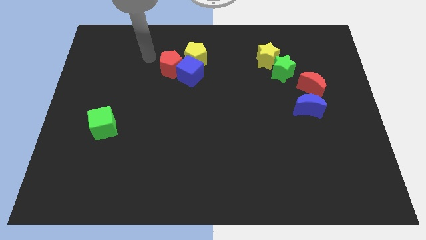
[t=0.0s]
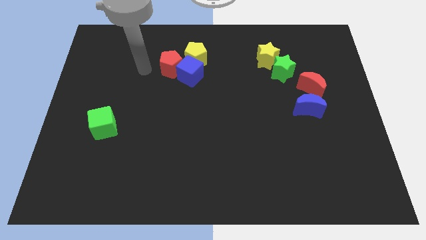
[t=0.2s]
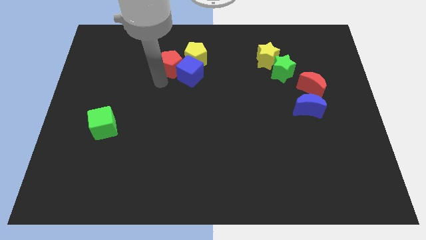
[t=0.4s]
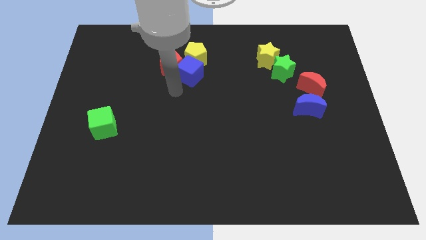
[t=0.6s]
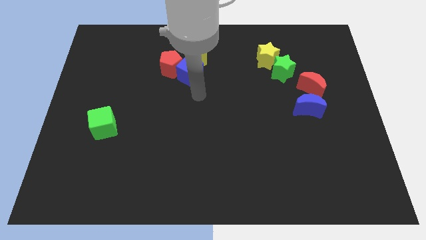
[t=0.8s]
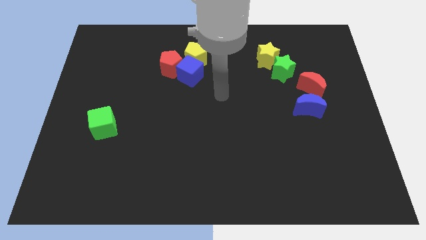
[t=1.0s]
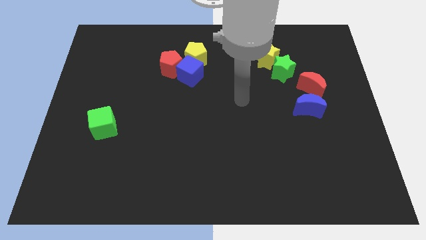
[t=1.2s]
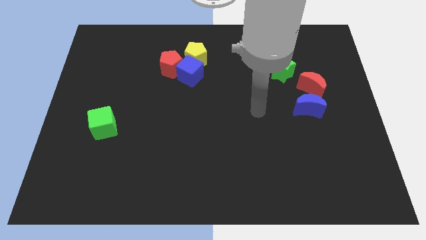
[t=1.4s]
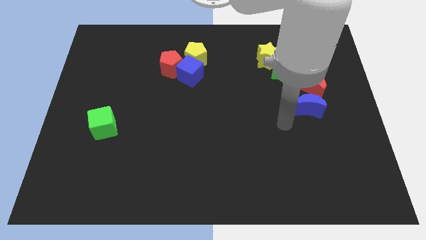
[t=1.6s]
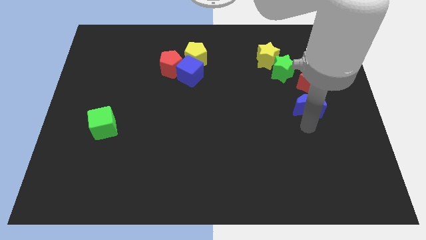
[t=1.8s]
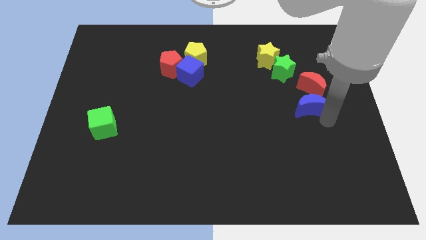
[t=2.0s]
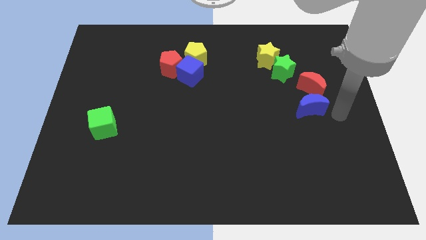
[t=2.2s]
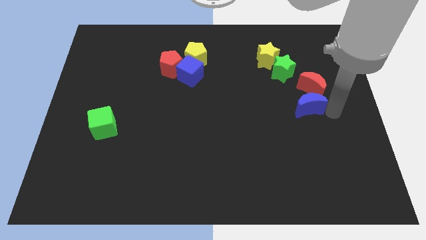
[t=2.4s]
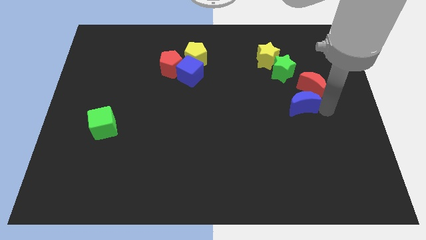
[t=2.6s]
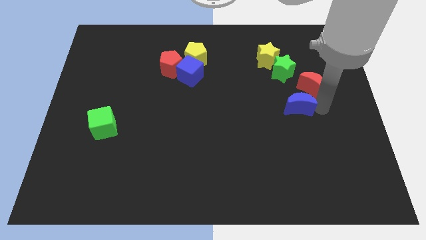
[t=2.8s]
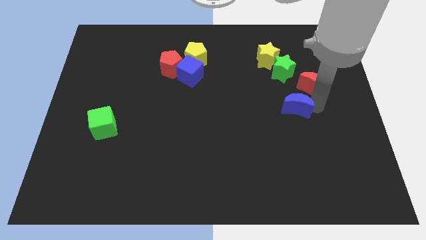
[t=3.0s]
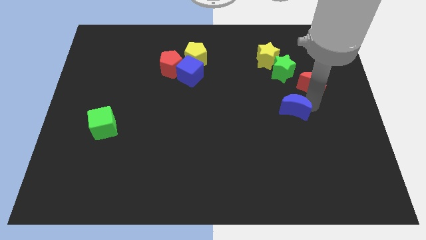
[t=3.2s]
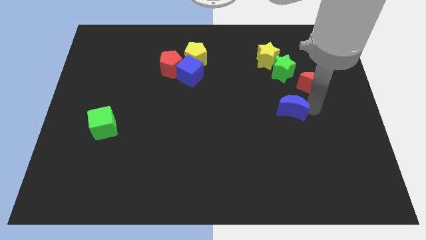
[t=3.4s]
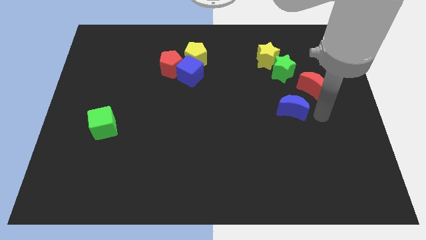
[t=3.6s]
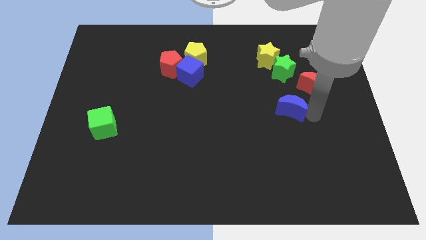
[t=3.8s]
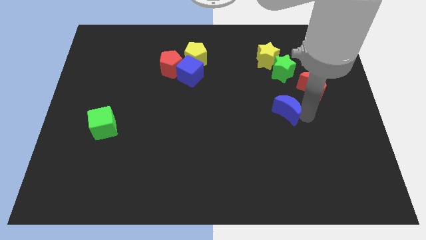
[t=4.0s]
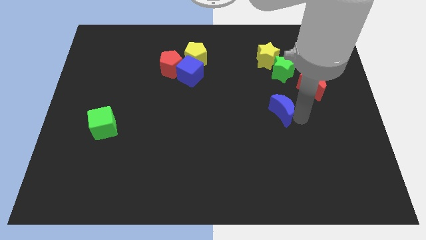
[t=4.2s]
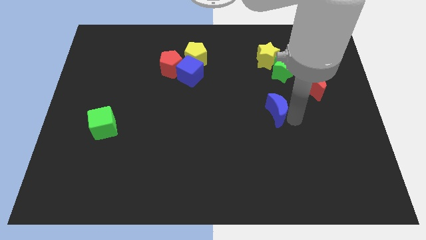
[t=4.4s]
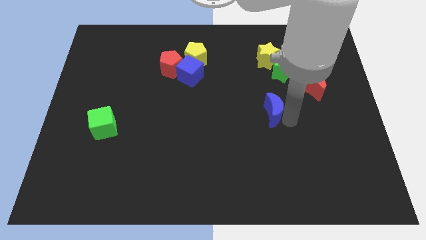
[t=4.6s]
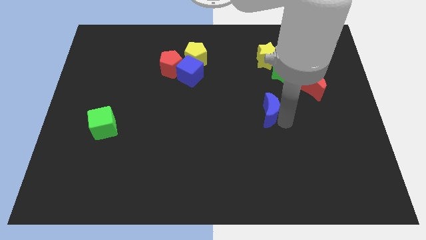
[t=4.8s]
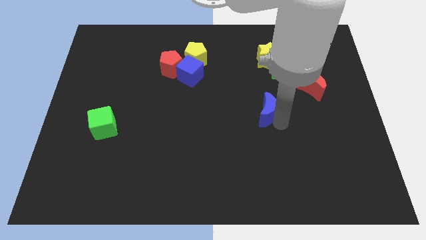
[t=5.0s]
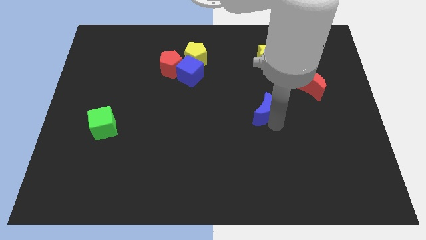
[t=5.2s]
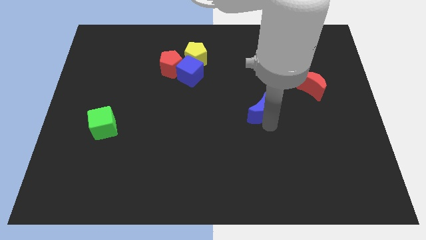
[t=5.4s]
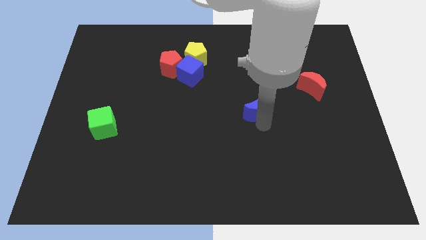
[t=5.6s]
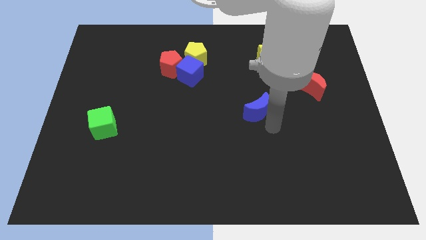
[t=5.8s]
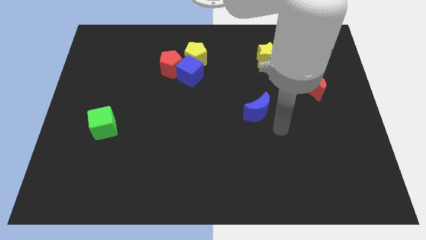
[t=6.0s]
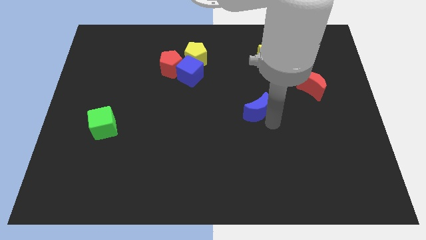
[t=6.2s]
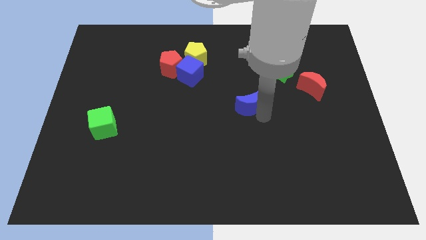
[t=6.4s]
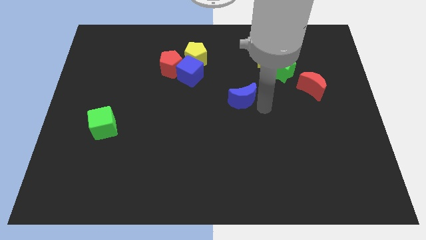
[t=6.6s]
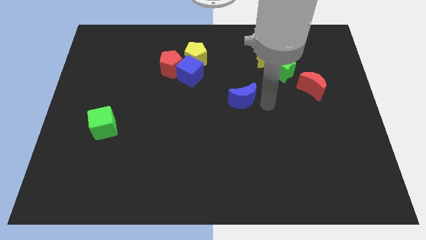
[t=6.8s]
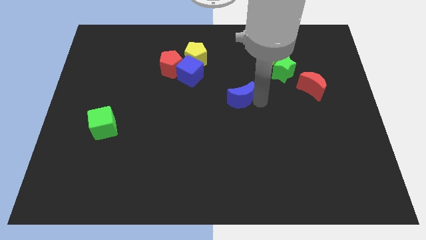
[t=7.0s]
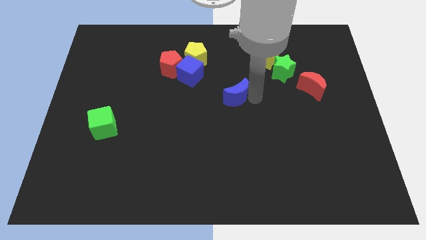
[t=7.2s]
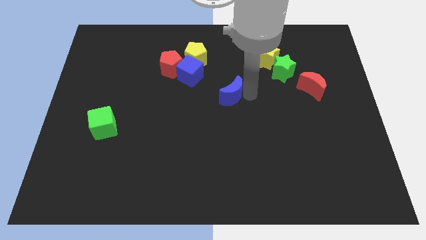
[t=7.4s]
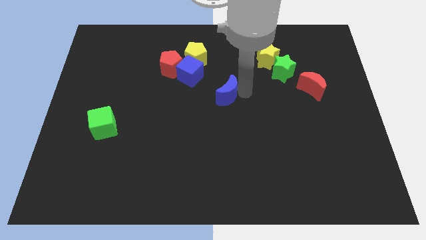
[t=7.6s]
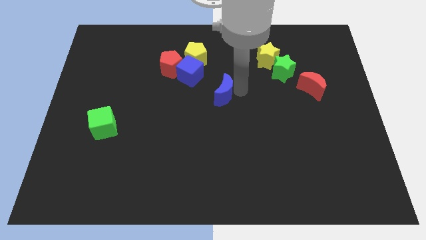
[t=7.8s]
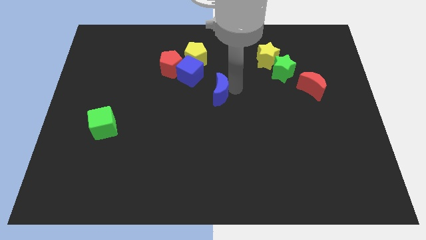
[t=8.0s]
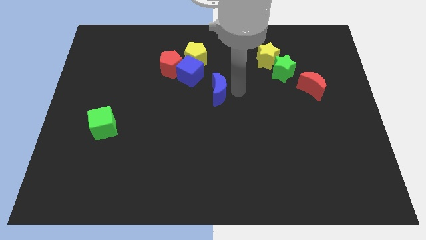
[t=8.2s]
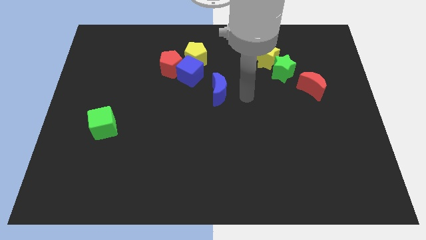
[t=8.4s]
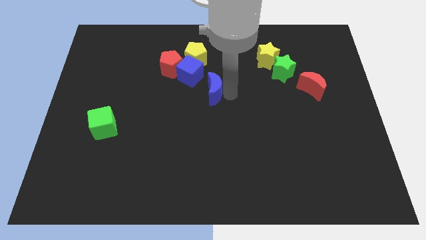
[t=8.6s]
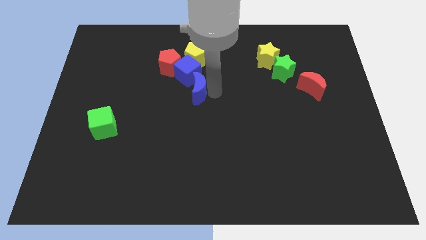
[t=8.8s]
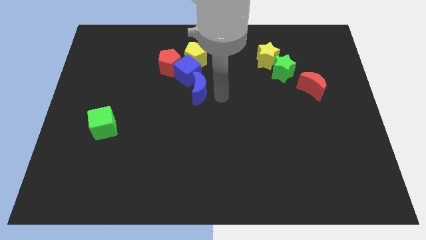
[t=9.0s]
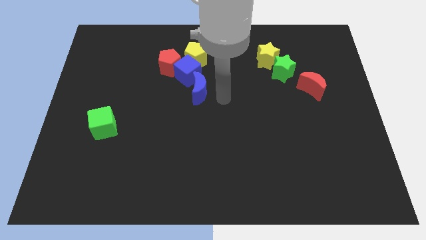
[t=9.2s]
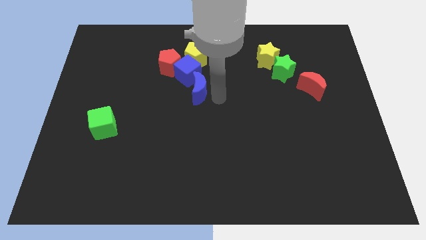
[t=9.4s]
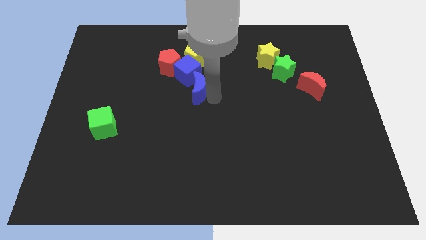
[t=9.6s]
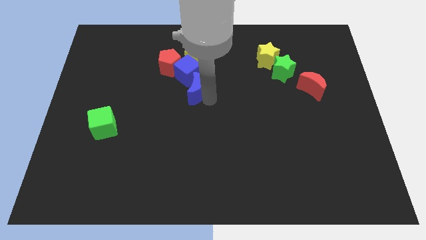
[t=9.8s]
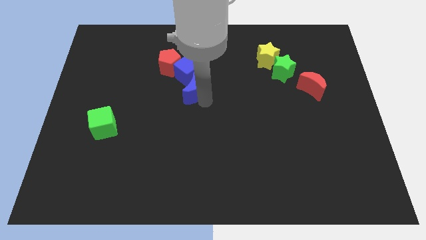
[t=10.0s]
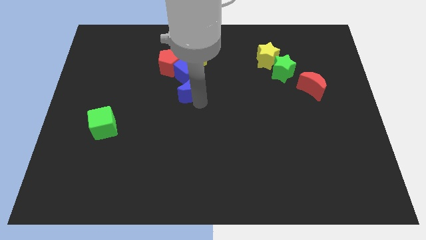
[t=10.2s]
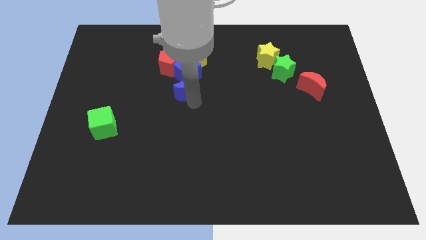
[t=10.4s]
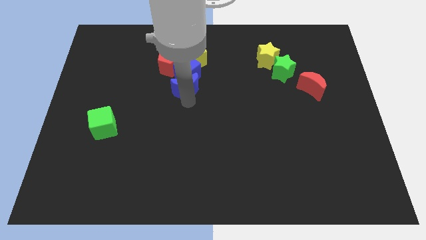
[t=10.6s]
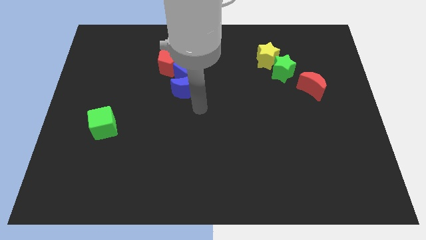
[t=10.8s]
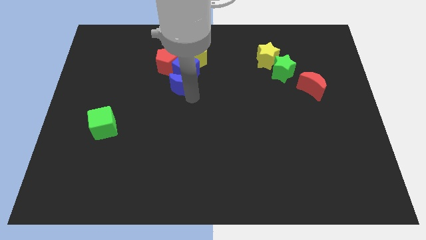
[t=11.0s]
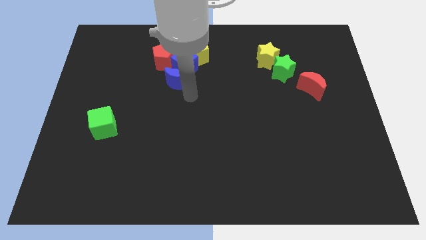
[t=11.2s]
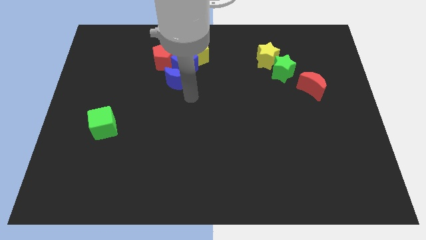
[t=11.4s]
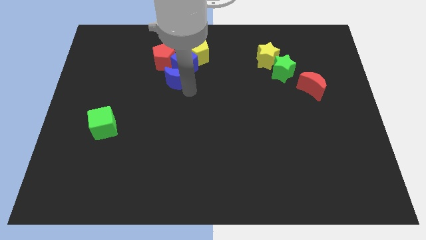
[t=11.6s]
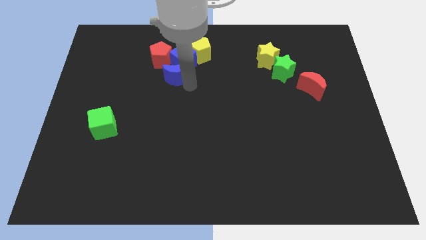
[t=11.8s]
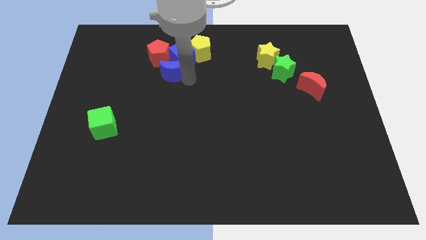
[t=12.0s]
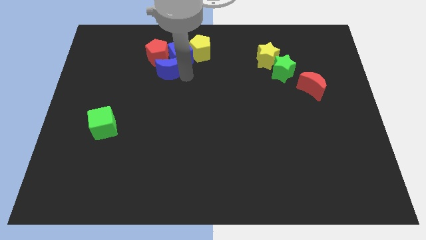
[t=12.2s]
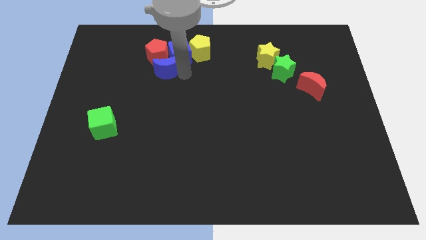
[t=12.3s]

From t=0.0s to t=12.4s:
slide the blue moon close to the red pentagon

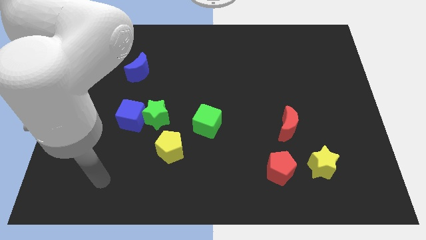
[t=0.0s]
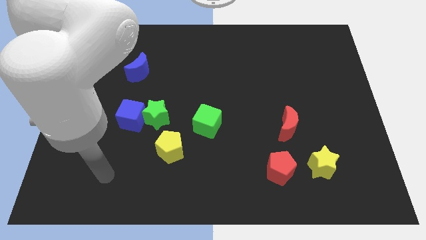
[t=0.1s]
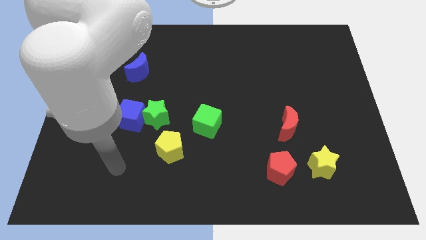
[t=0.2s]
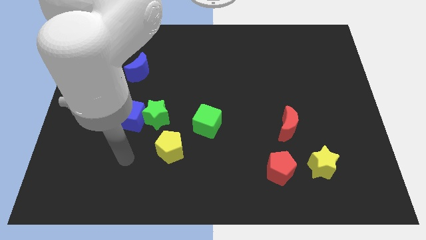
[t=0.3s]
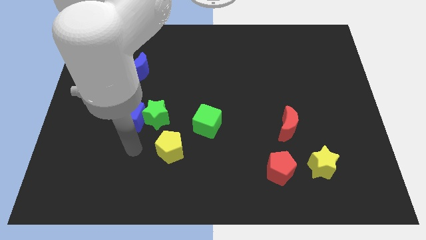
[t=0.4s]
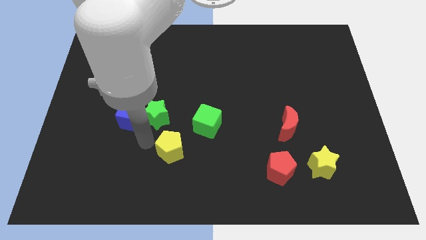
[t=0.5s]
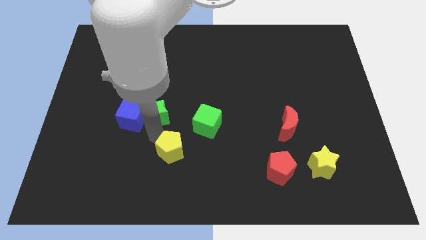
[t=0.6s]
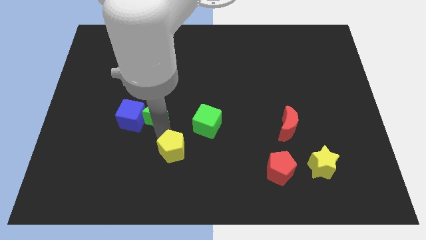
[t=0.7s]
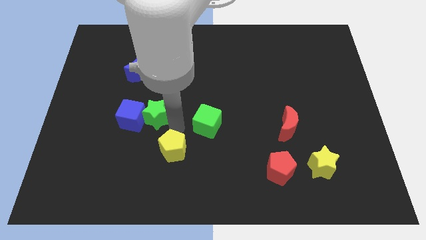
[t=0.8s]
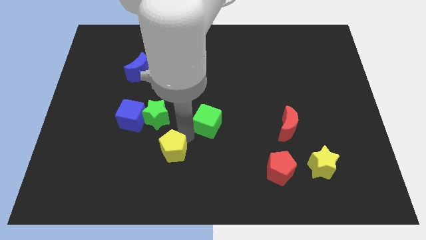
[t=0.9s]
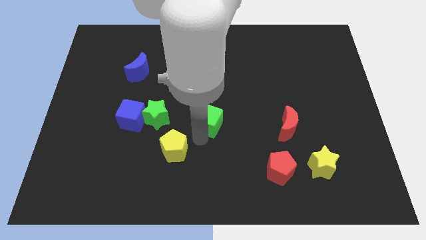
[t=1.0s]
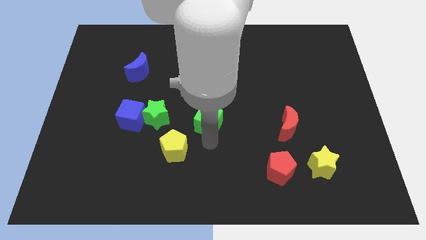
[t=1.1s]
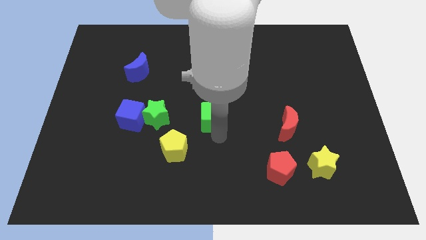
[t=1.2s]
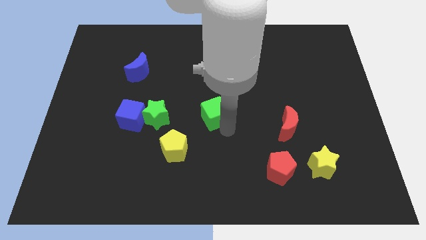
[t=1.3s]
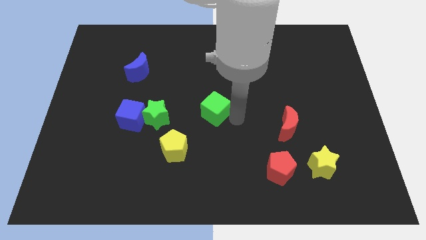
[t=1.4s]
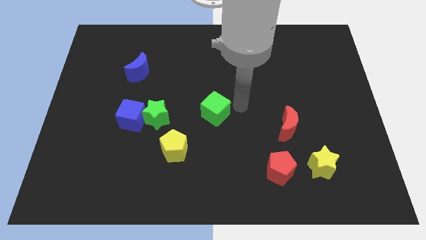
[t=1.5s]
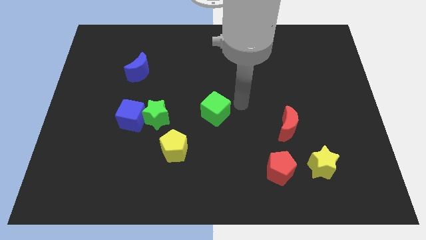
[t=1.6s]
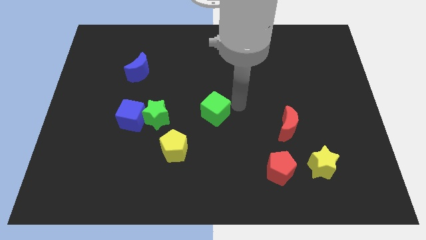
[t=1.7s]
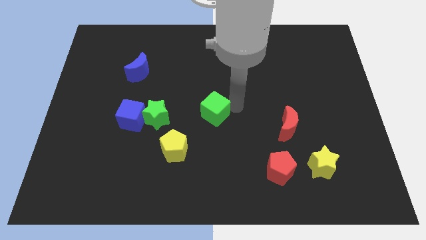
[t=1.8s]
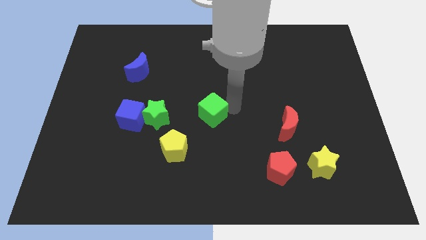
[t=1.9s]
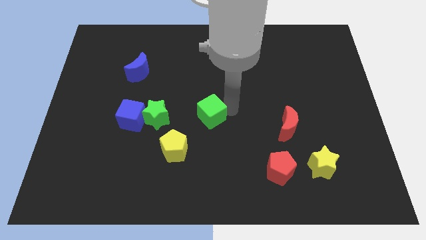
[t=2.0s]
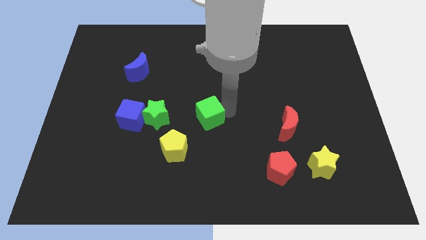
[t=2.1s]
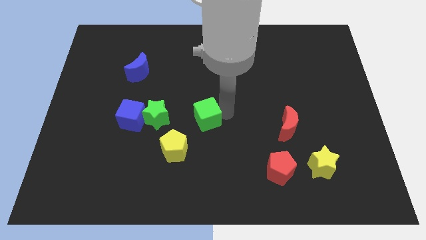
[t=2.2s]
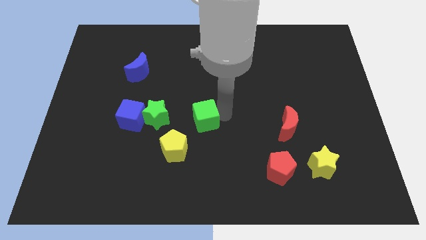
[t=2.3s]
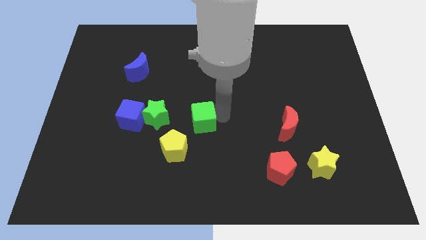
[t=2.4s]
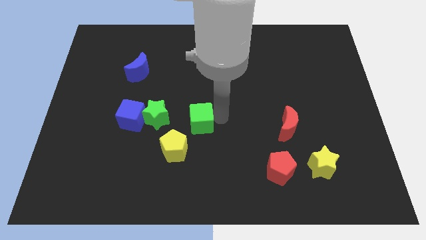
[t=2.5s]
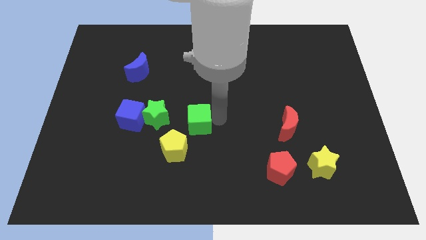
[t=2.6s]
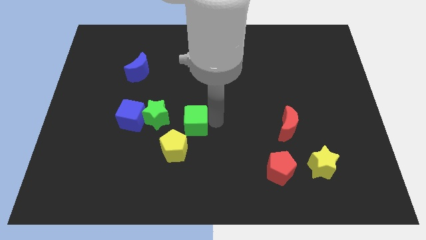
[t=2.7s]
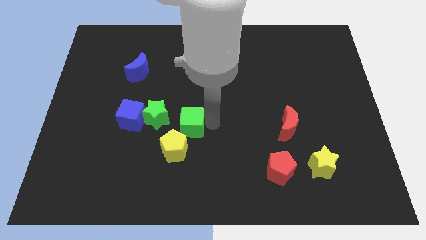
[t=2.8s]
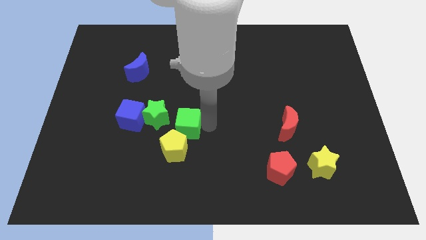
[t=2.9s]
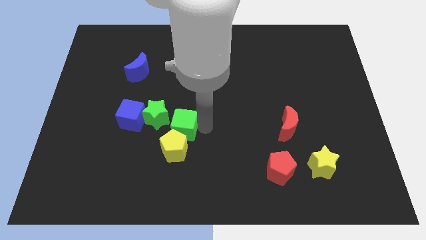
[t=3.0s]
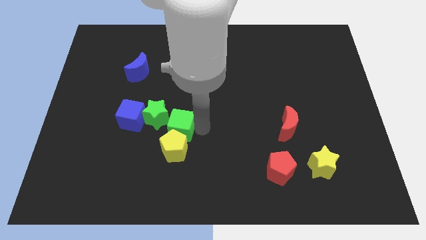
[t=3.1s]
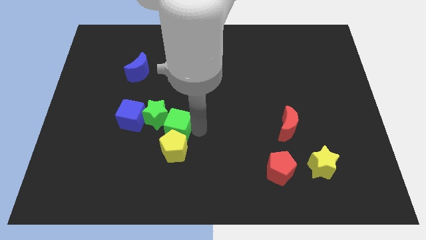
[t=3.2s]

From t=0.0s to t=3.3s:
put the green cube next to the green star
